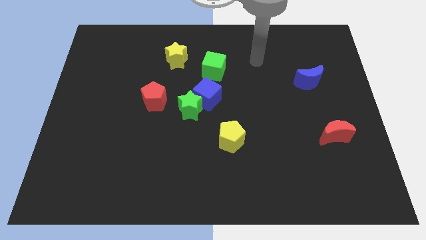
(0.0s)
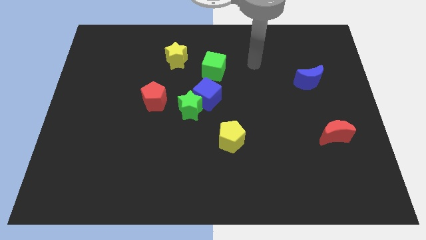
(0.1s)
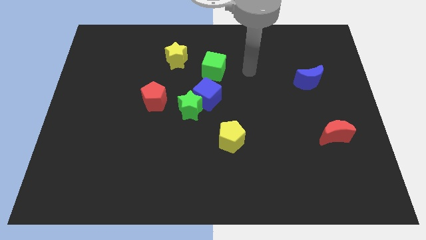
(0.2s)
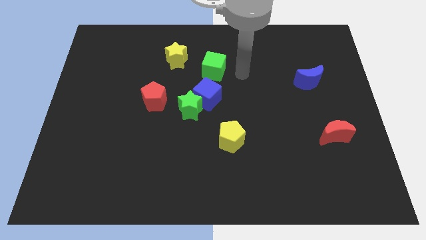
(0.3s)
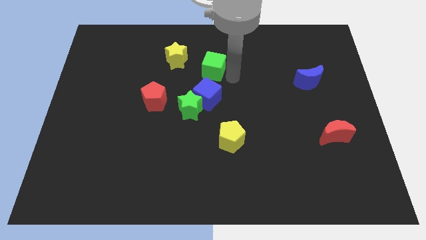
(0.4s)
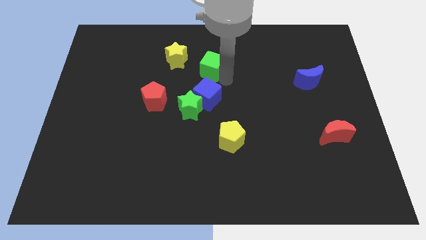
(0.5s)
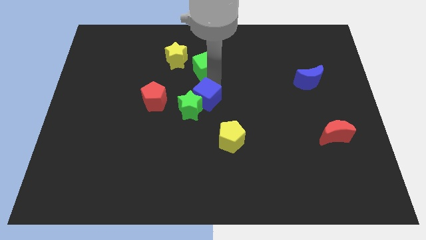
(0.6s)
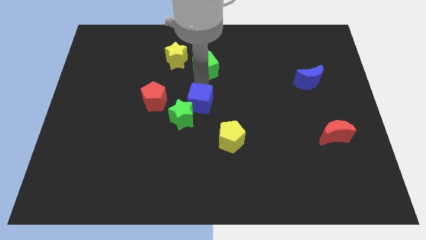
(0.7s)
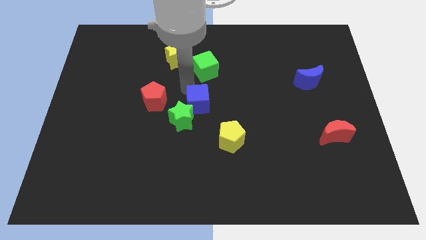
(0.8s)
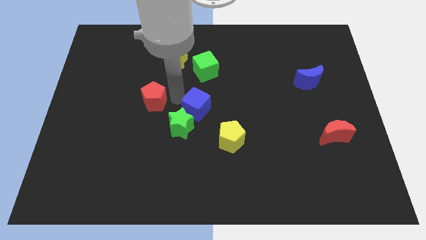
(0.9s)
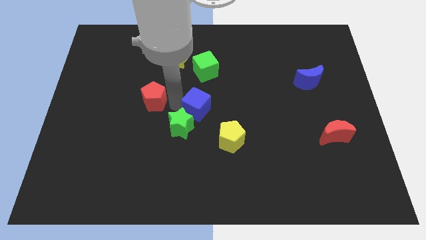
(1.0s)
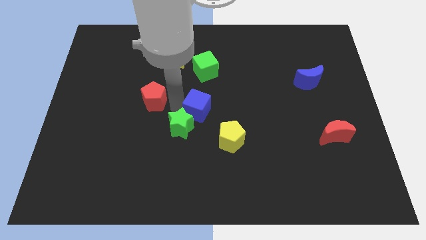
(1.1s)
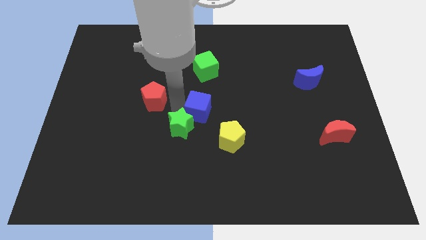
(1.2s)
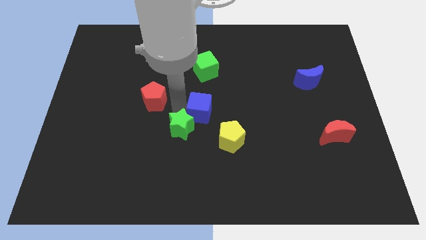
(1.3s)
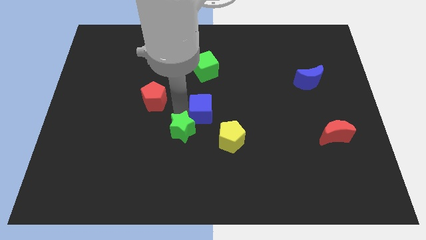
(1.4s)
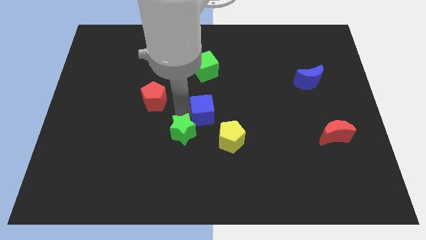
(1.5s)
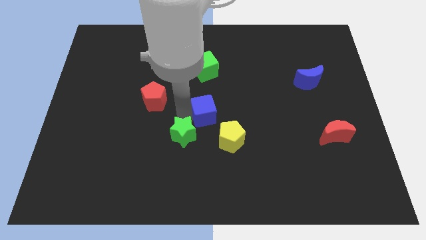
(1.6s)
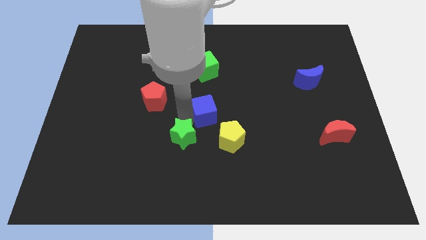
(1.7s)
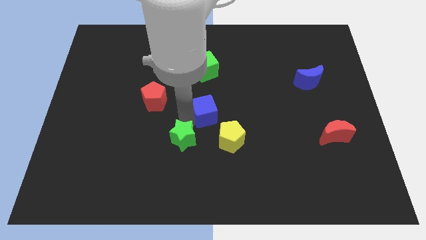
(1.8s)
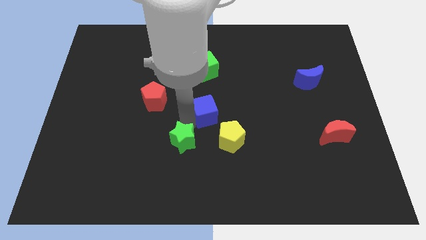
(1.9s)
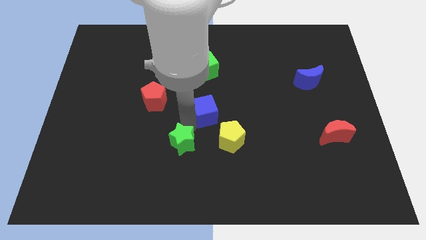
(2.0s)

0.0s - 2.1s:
move the green star away from the blue cube and red pentagon

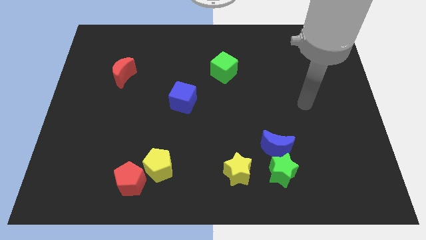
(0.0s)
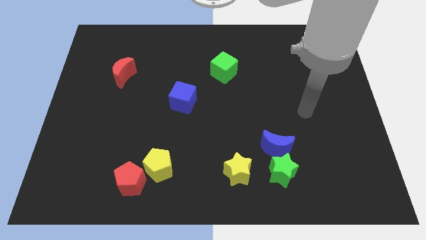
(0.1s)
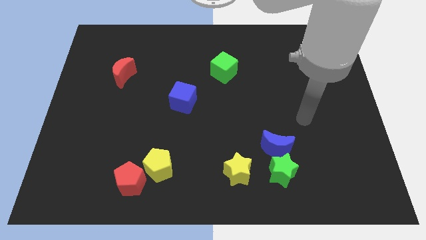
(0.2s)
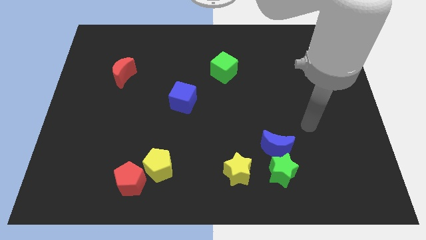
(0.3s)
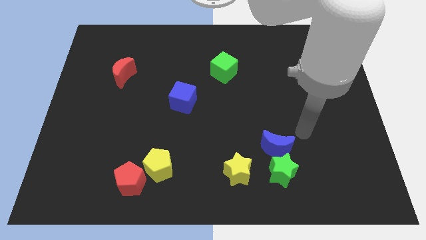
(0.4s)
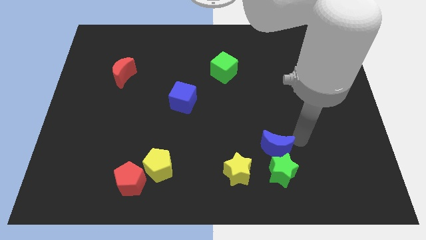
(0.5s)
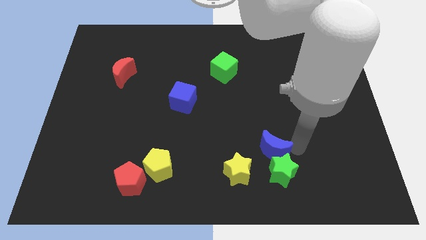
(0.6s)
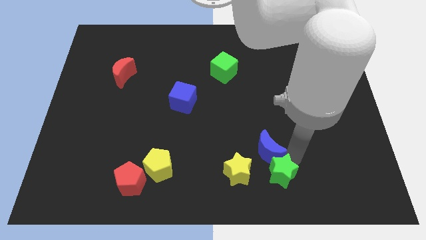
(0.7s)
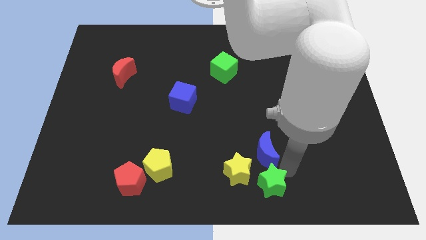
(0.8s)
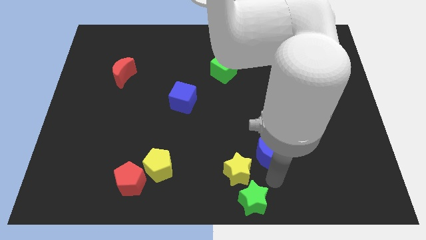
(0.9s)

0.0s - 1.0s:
pull the blue moon apart from the green star

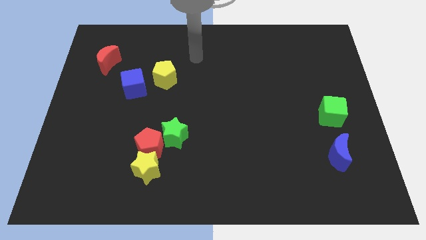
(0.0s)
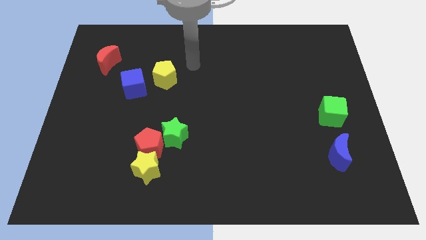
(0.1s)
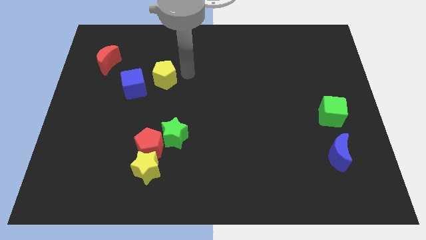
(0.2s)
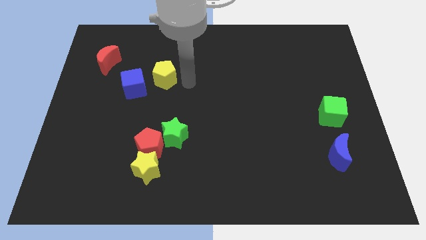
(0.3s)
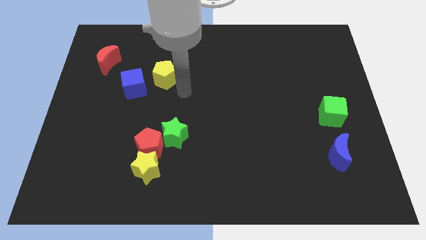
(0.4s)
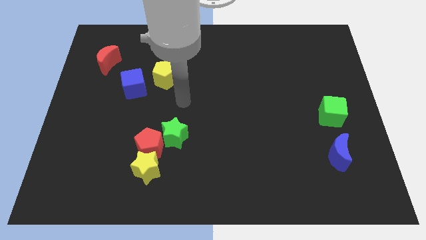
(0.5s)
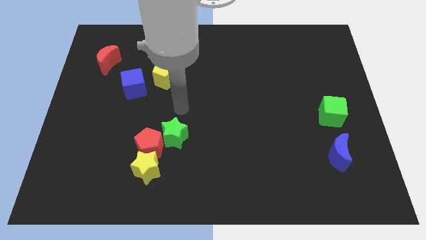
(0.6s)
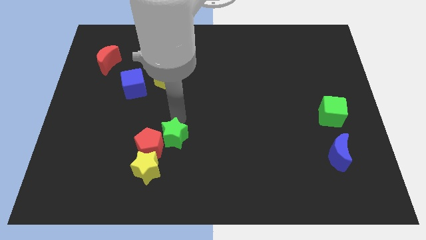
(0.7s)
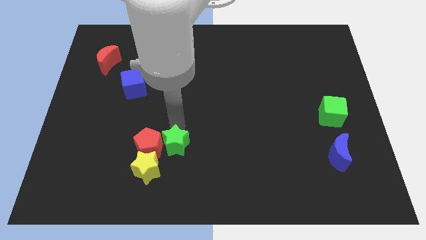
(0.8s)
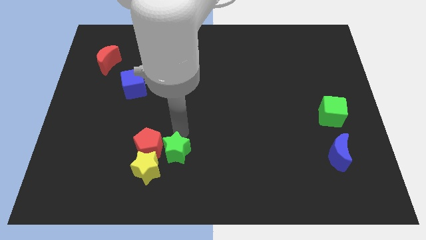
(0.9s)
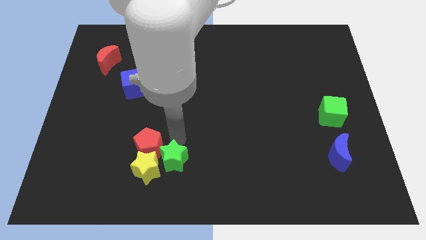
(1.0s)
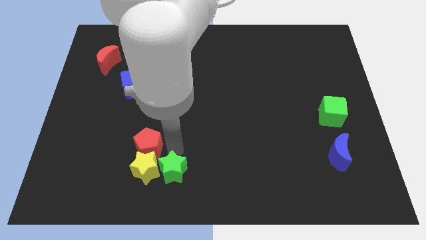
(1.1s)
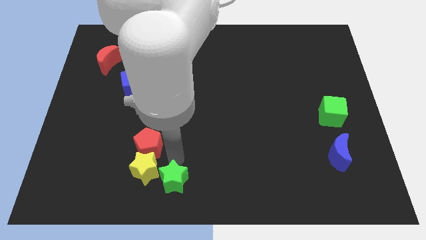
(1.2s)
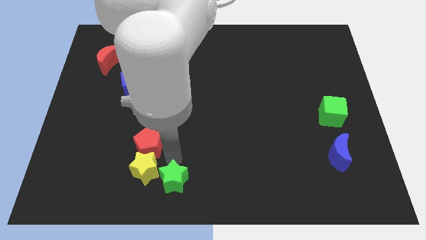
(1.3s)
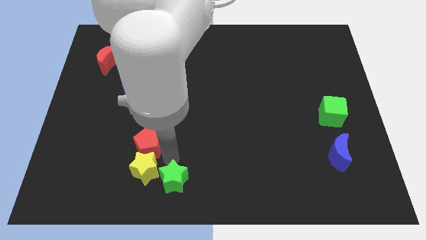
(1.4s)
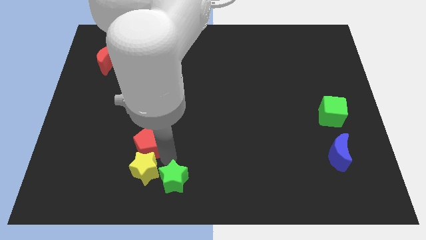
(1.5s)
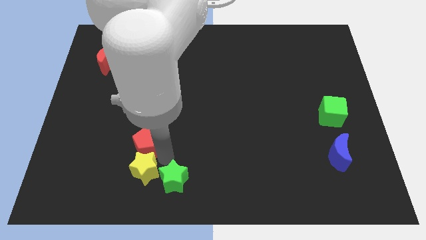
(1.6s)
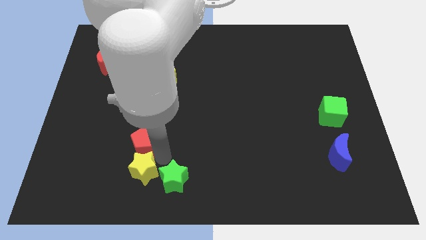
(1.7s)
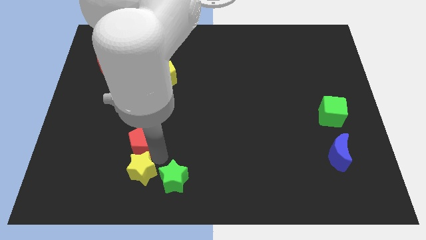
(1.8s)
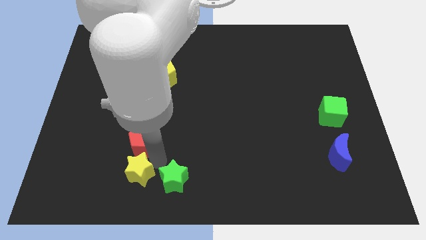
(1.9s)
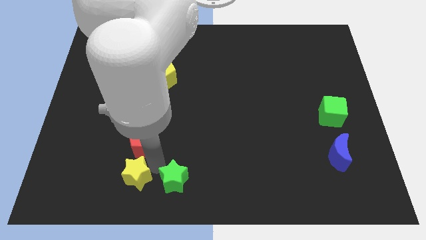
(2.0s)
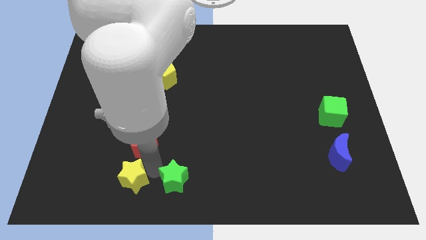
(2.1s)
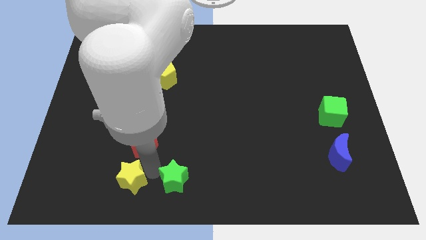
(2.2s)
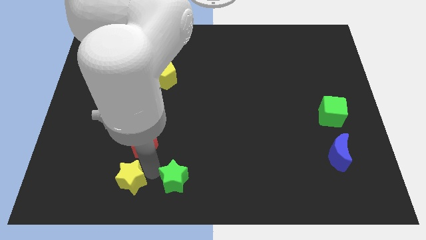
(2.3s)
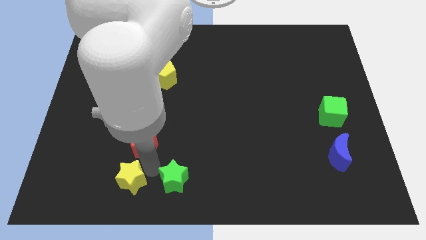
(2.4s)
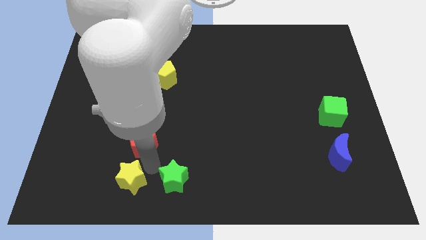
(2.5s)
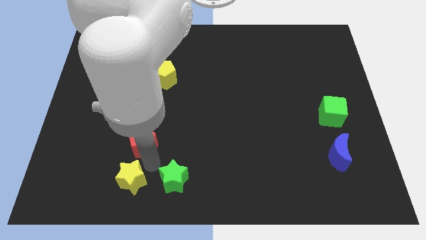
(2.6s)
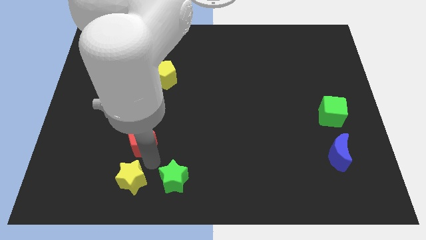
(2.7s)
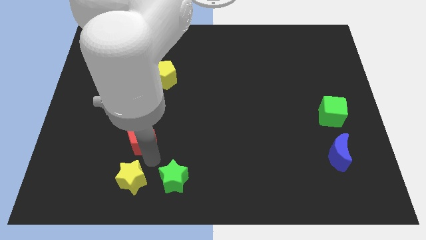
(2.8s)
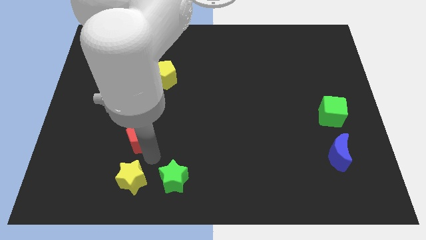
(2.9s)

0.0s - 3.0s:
pull the red pentagon apart from the yellow star and green star

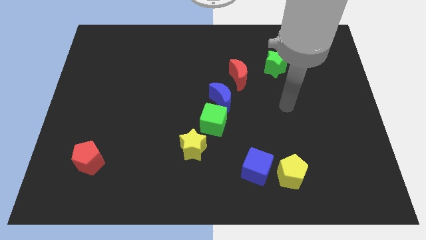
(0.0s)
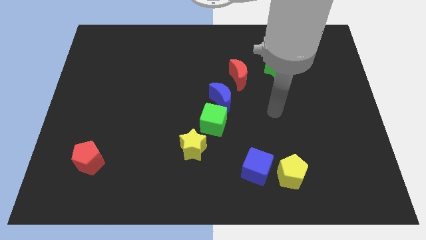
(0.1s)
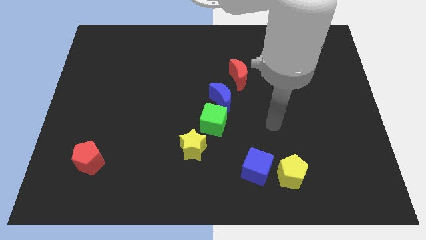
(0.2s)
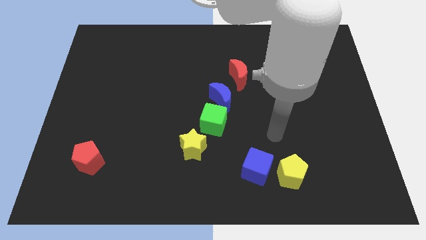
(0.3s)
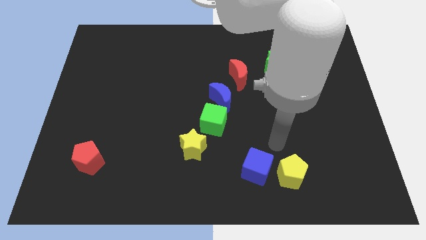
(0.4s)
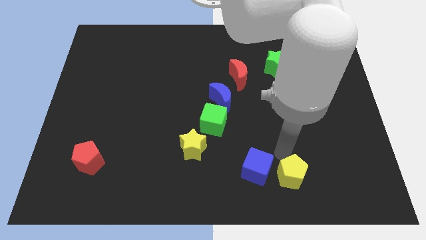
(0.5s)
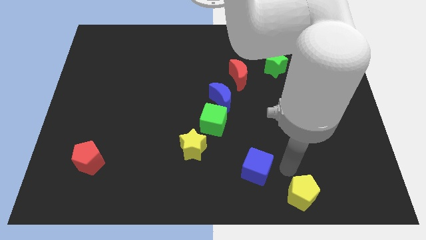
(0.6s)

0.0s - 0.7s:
separate the blue cube from the yellow pentagon

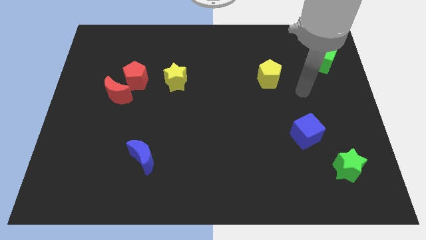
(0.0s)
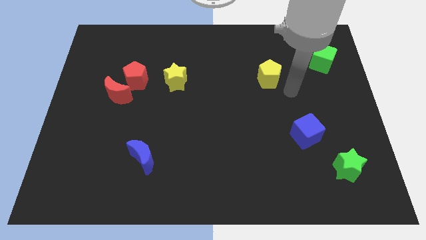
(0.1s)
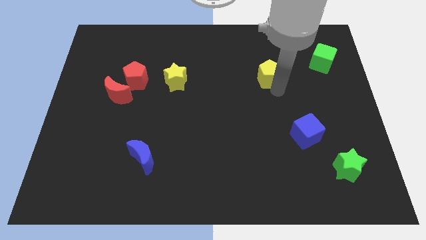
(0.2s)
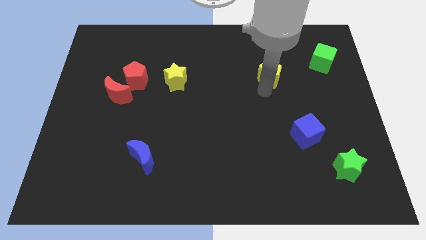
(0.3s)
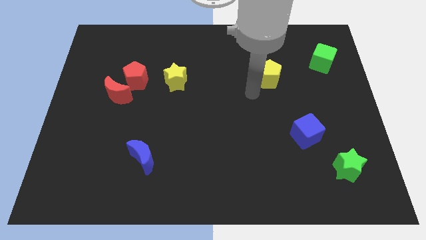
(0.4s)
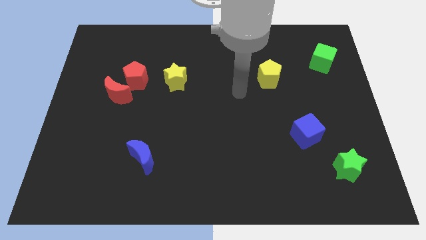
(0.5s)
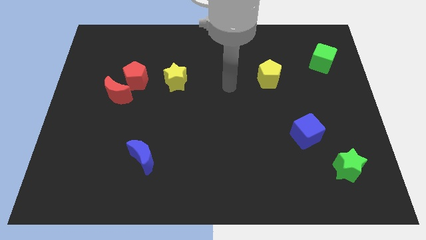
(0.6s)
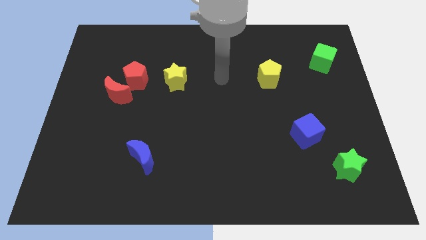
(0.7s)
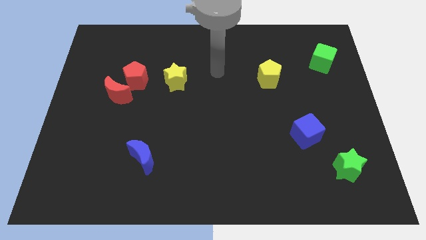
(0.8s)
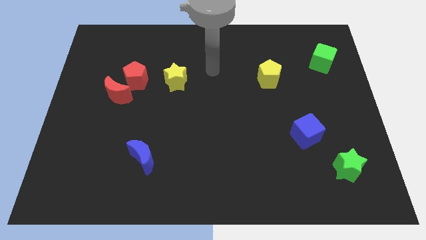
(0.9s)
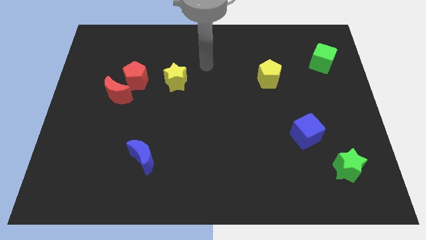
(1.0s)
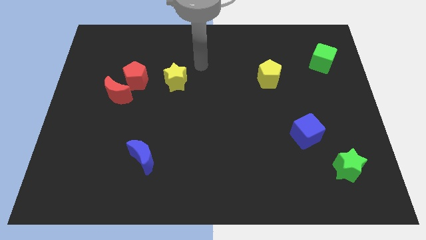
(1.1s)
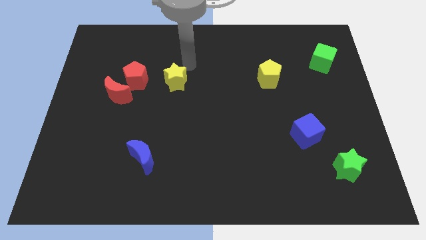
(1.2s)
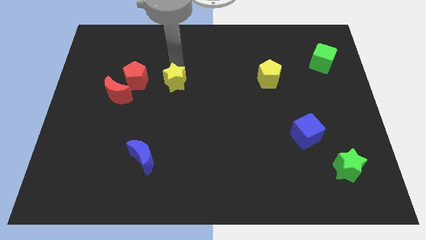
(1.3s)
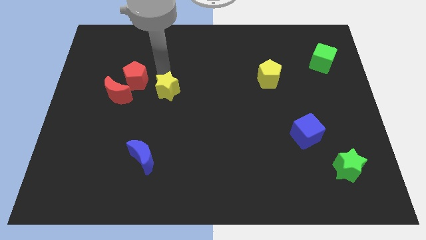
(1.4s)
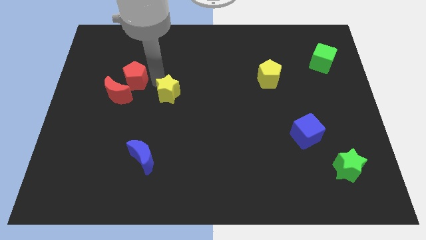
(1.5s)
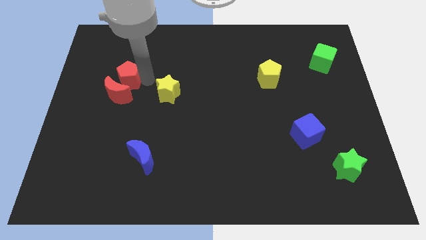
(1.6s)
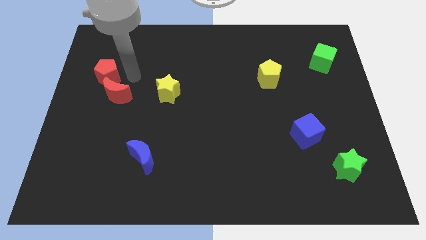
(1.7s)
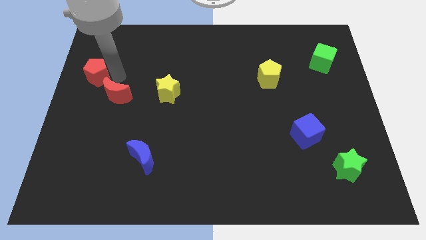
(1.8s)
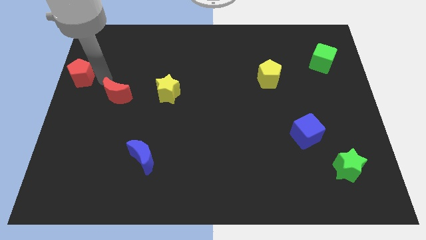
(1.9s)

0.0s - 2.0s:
pull the red moon apart from the red pentagon

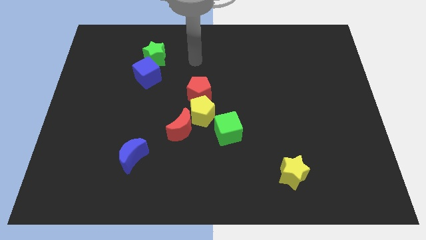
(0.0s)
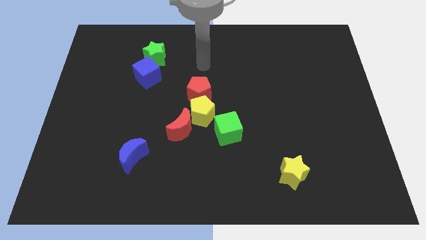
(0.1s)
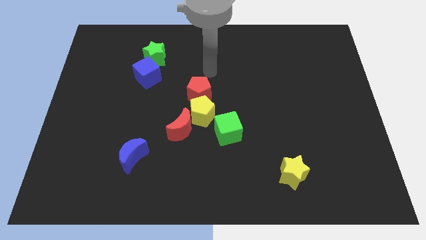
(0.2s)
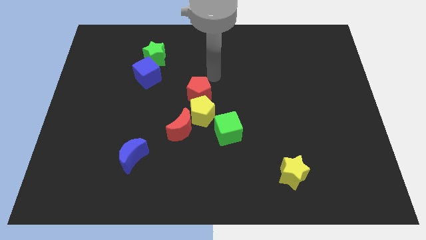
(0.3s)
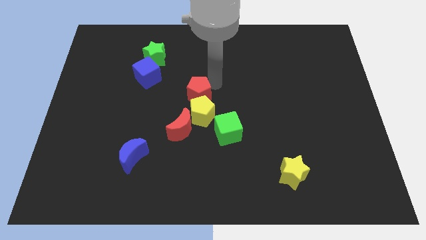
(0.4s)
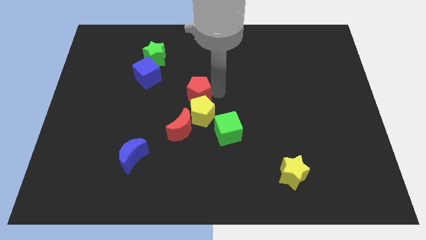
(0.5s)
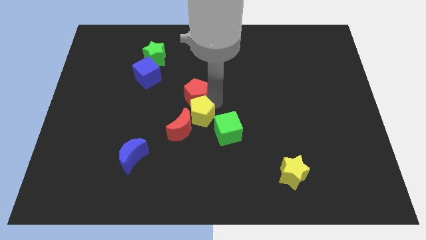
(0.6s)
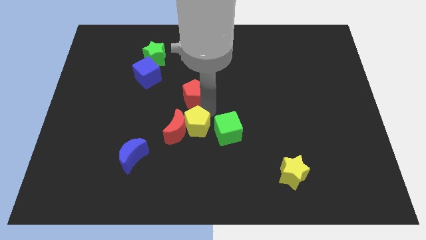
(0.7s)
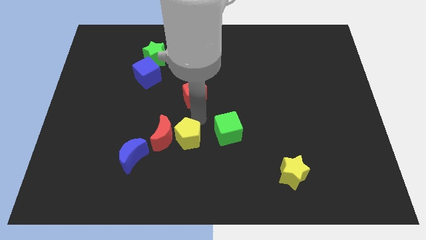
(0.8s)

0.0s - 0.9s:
move the red pentagon away from the yellow pentagon
